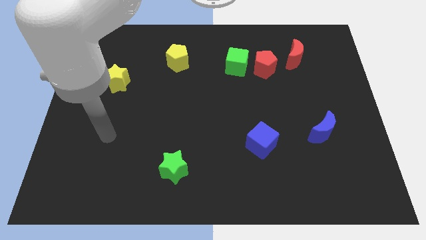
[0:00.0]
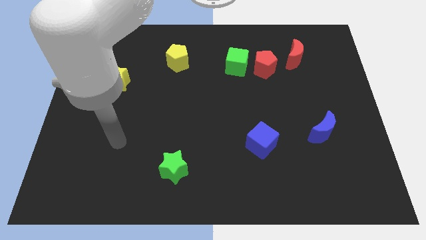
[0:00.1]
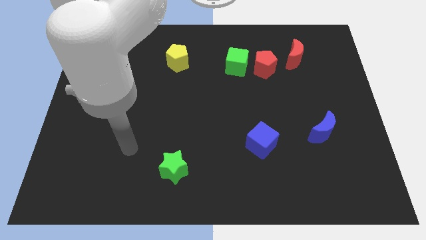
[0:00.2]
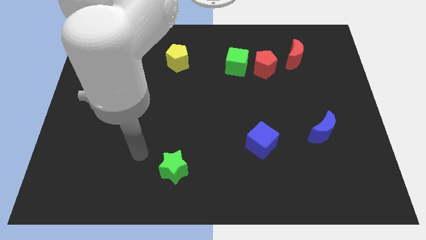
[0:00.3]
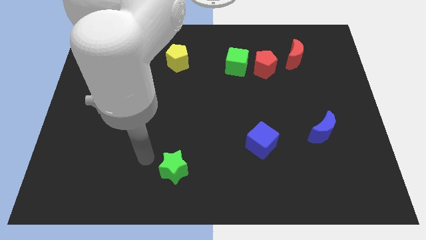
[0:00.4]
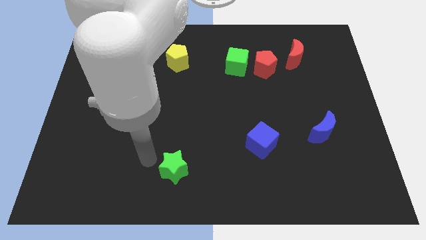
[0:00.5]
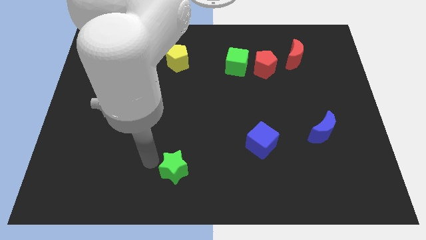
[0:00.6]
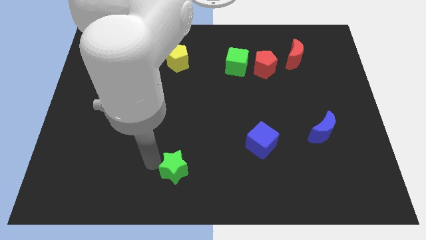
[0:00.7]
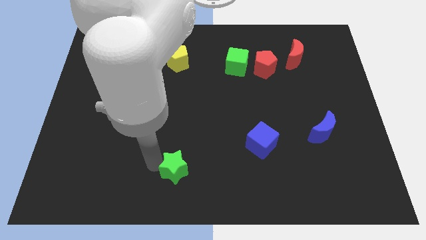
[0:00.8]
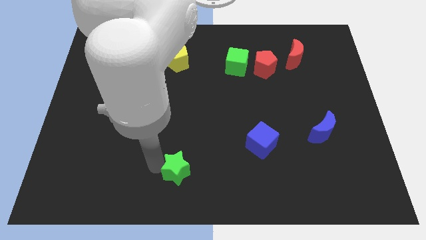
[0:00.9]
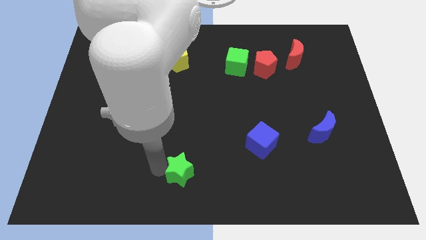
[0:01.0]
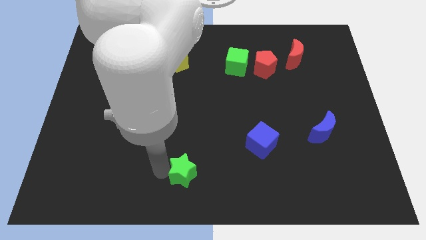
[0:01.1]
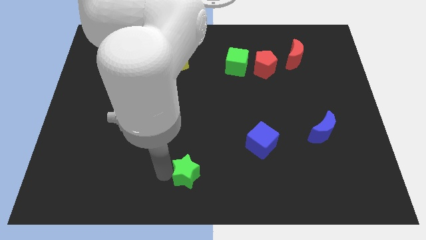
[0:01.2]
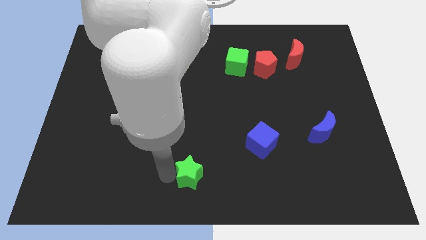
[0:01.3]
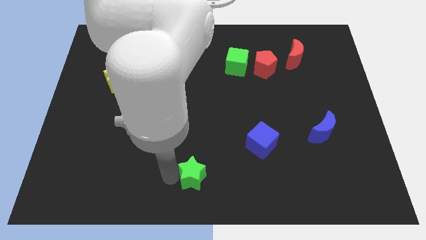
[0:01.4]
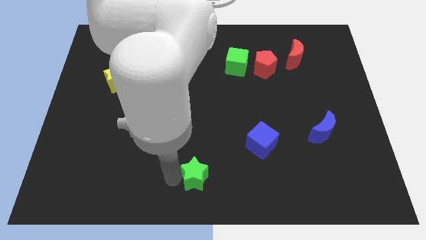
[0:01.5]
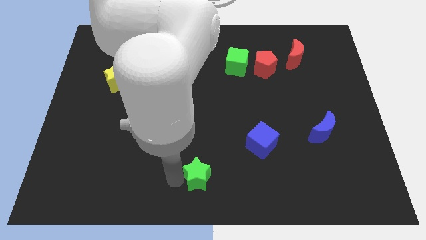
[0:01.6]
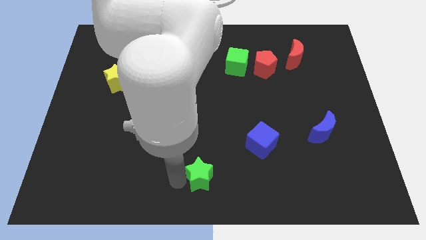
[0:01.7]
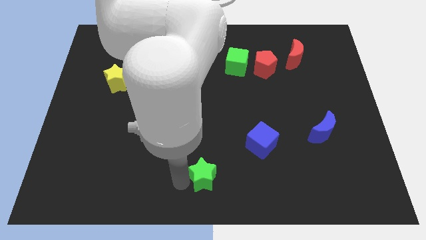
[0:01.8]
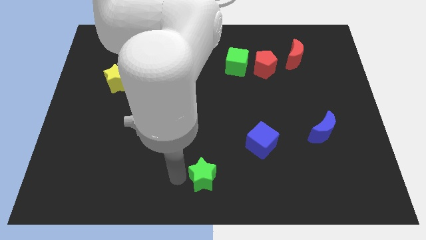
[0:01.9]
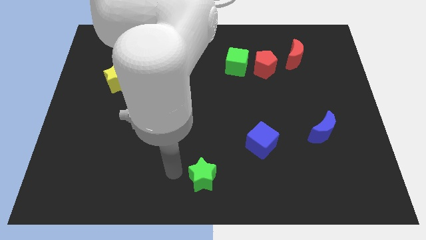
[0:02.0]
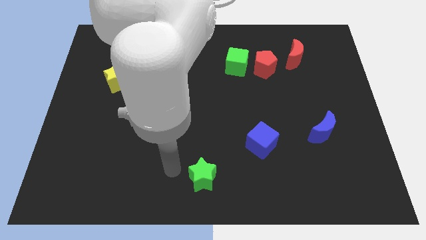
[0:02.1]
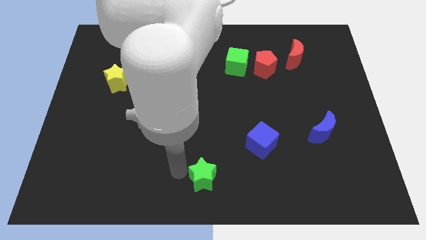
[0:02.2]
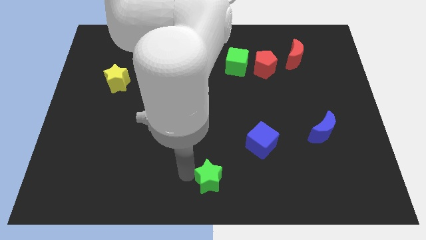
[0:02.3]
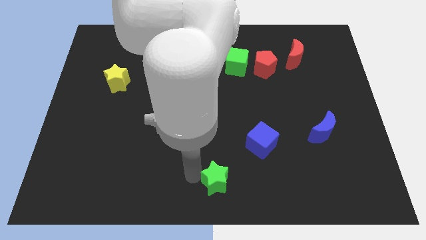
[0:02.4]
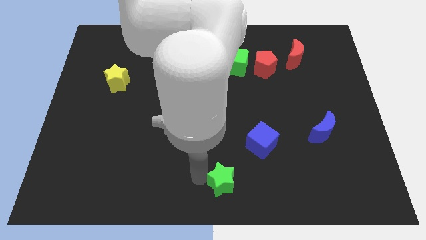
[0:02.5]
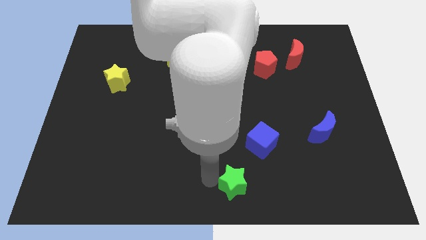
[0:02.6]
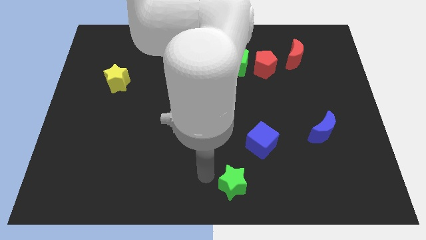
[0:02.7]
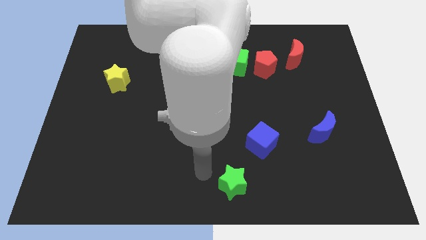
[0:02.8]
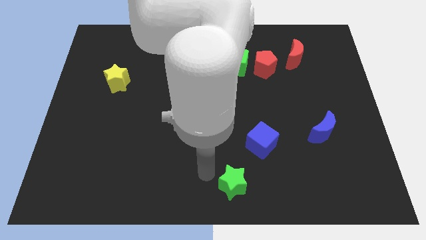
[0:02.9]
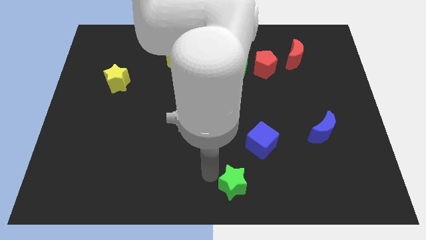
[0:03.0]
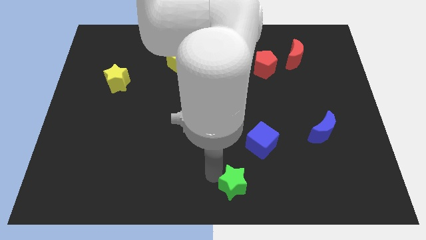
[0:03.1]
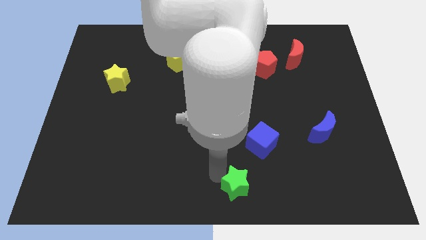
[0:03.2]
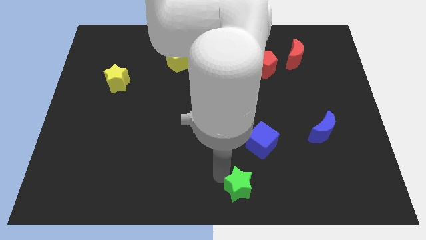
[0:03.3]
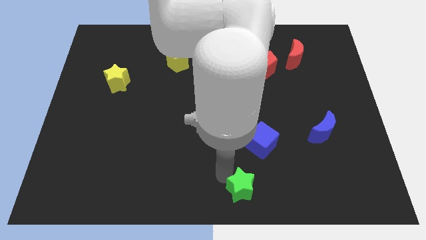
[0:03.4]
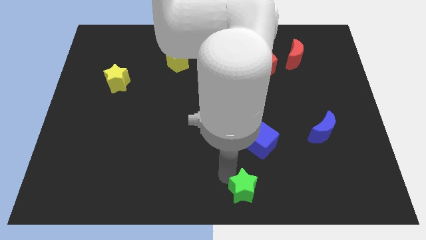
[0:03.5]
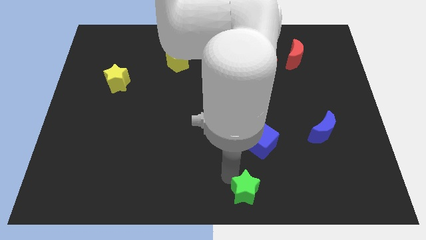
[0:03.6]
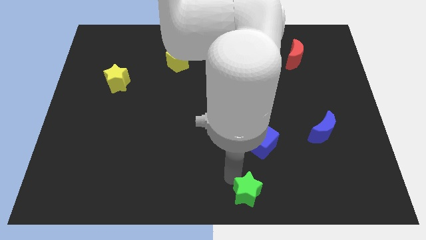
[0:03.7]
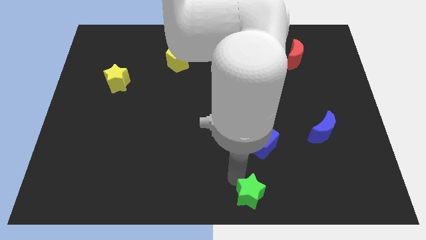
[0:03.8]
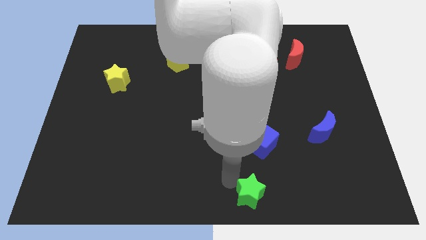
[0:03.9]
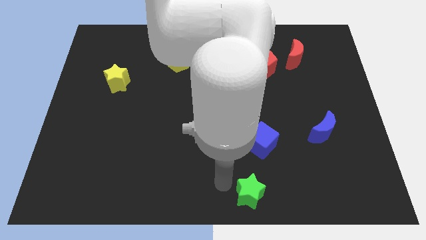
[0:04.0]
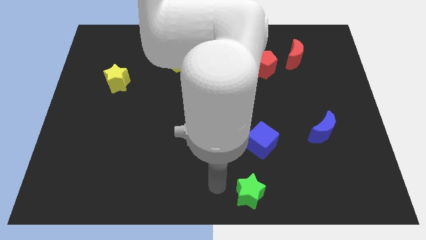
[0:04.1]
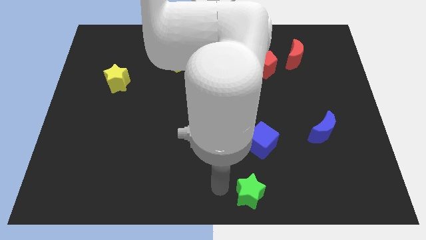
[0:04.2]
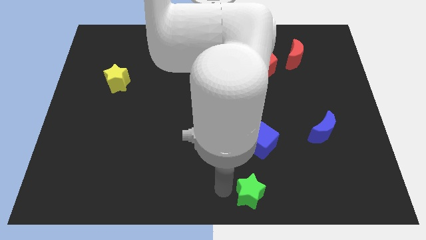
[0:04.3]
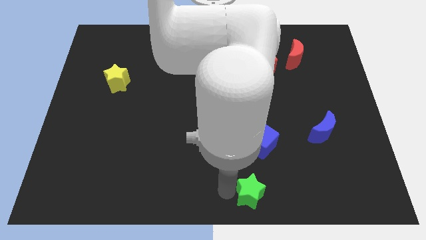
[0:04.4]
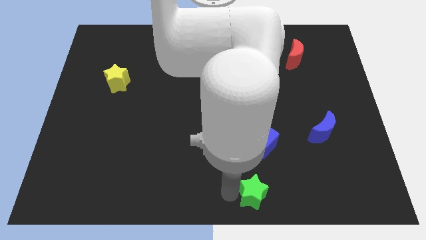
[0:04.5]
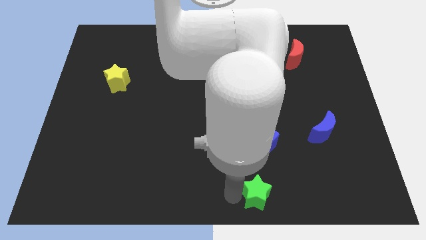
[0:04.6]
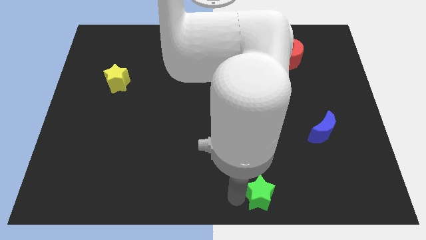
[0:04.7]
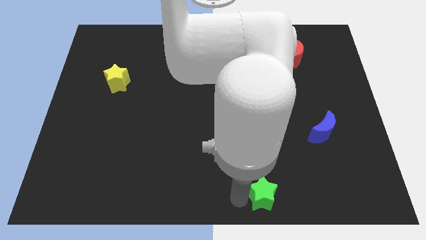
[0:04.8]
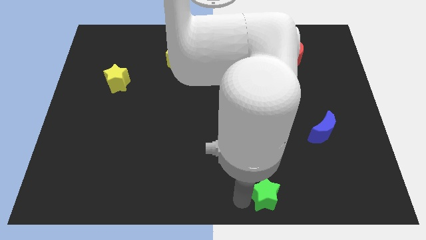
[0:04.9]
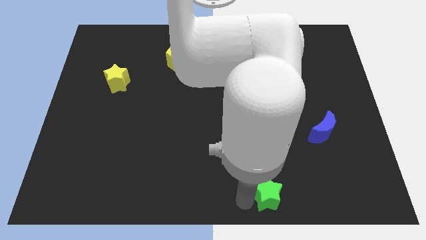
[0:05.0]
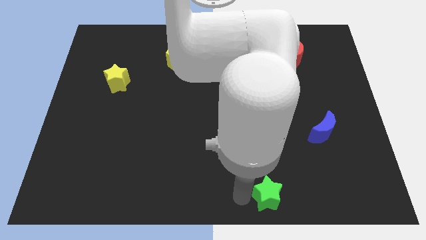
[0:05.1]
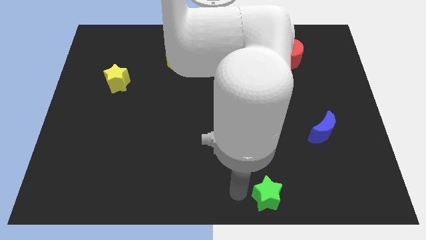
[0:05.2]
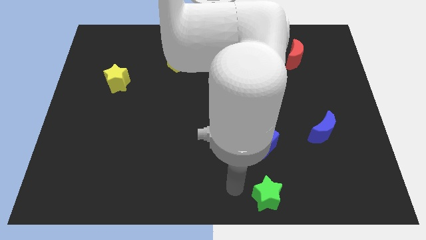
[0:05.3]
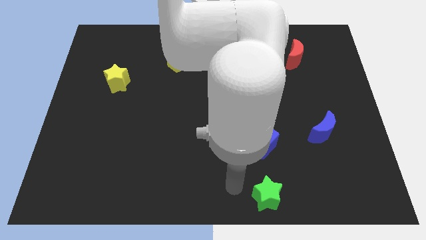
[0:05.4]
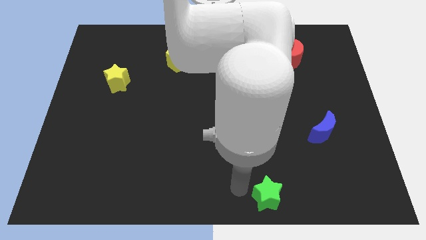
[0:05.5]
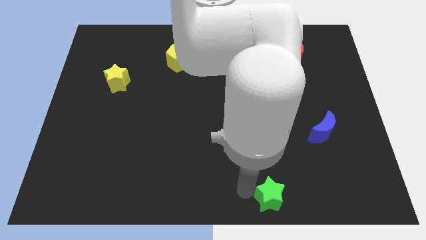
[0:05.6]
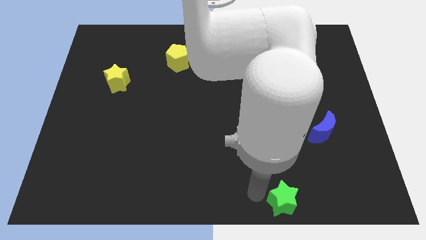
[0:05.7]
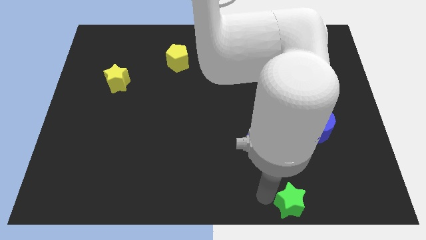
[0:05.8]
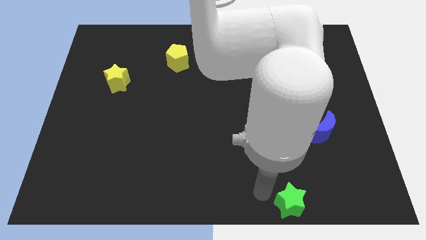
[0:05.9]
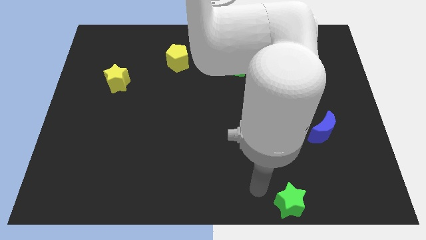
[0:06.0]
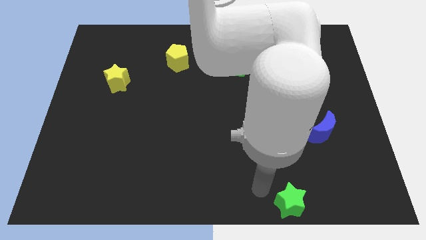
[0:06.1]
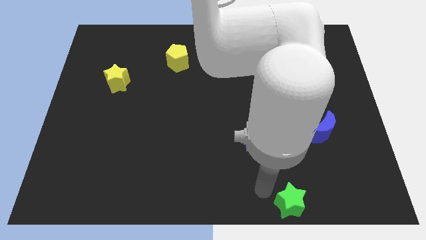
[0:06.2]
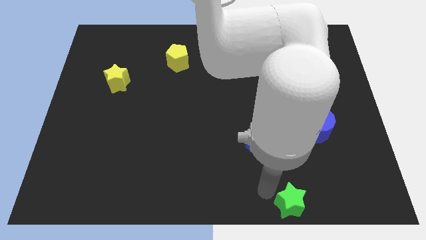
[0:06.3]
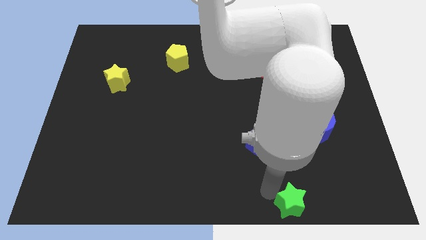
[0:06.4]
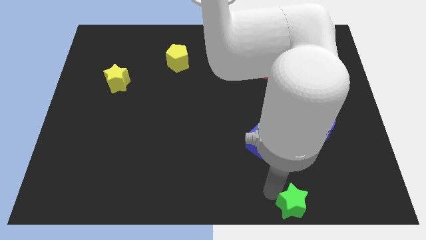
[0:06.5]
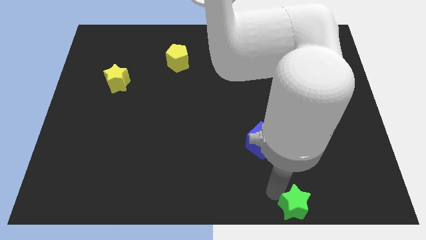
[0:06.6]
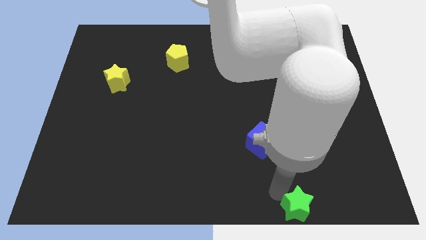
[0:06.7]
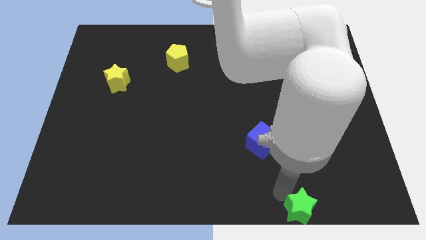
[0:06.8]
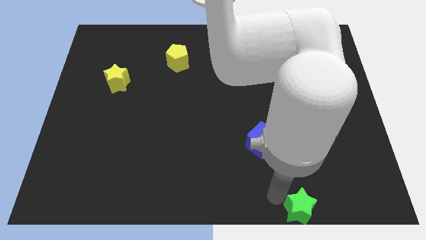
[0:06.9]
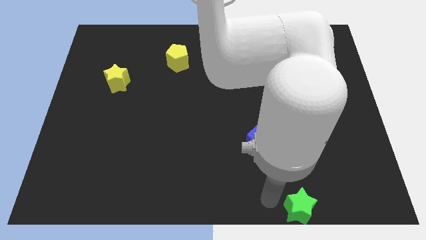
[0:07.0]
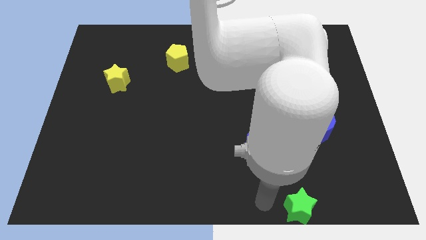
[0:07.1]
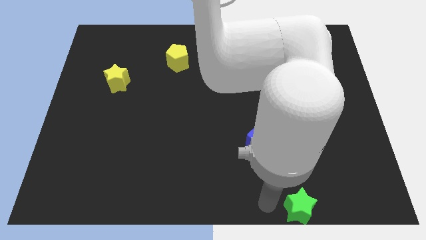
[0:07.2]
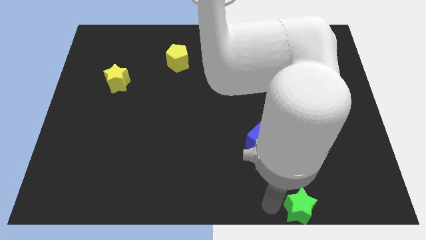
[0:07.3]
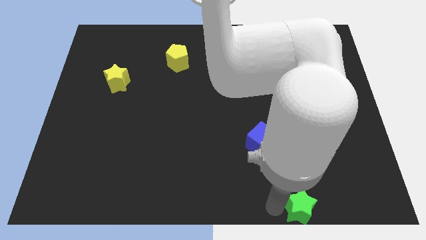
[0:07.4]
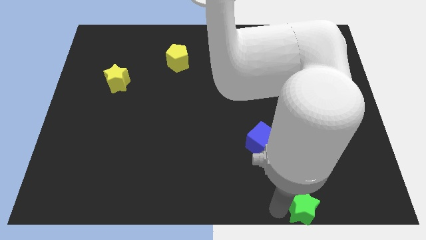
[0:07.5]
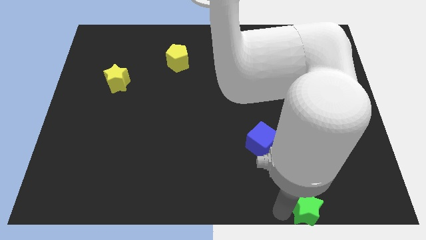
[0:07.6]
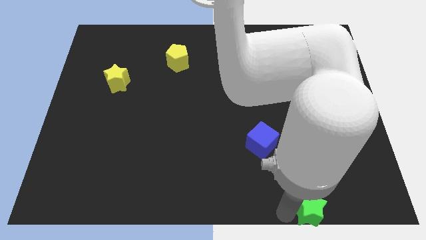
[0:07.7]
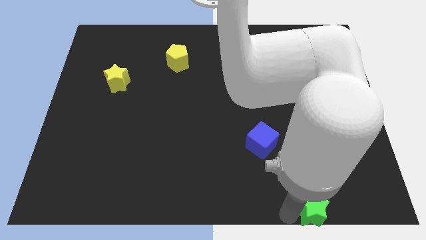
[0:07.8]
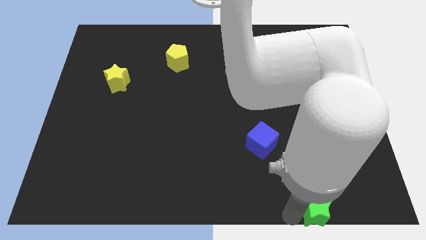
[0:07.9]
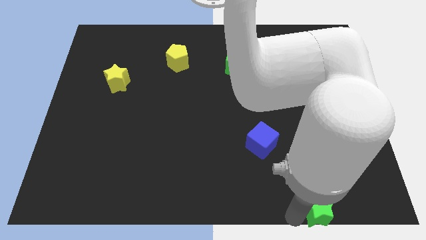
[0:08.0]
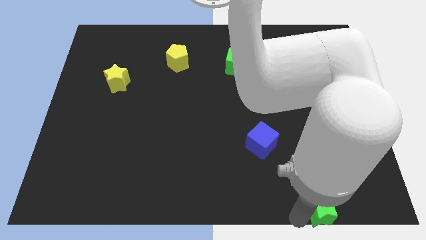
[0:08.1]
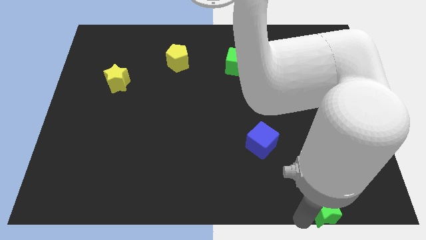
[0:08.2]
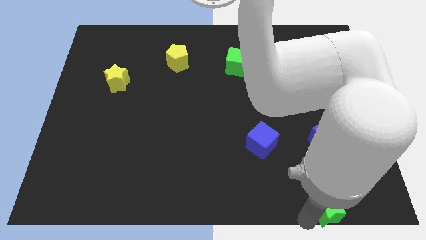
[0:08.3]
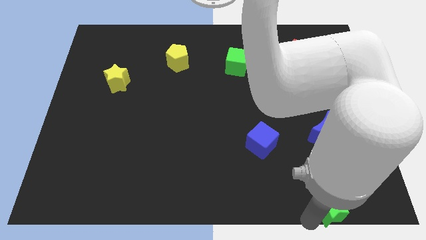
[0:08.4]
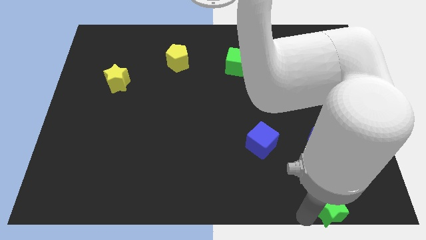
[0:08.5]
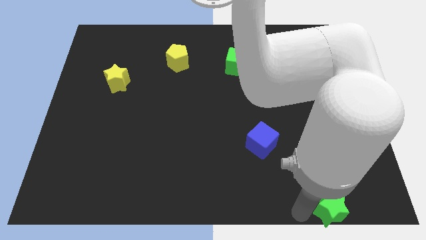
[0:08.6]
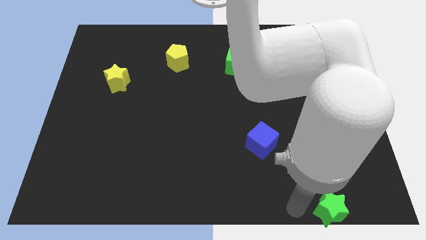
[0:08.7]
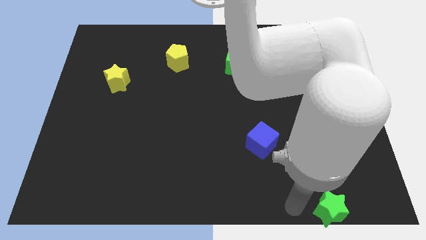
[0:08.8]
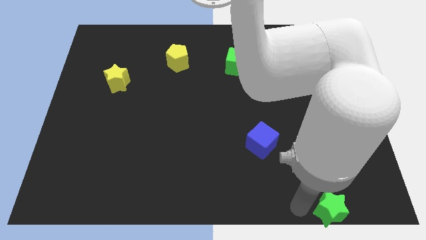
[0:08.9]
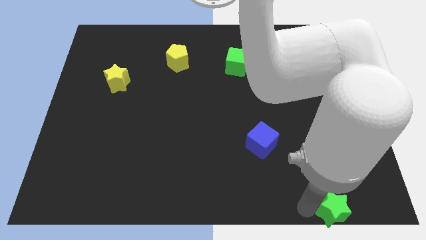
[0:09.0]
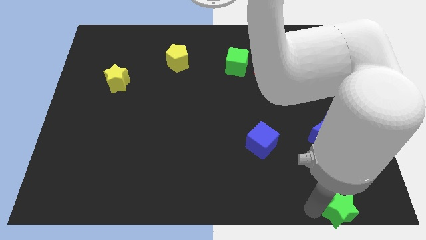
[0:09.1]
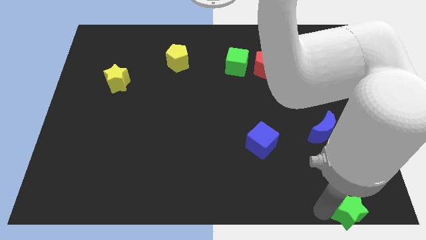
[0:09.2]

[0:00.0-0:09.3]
move the green star to the bottom right corner
